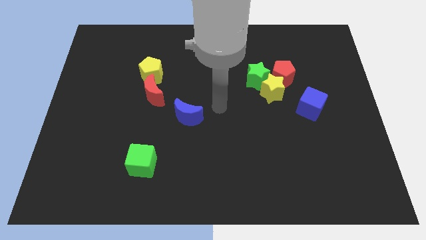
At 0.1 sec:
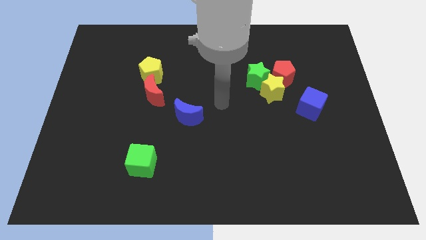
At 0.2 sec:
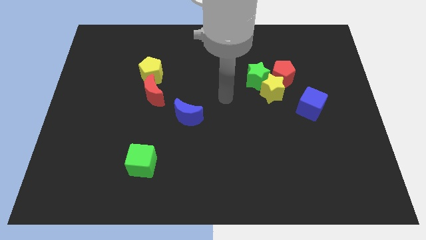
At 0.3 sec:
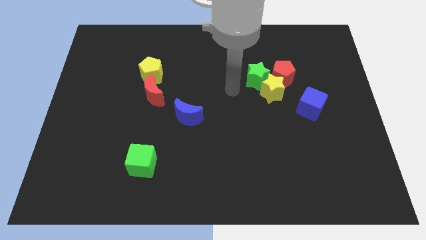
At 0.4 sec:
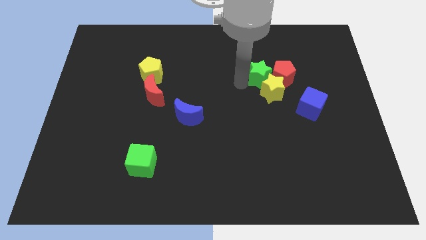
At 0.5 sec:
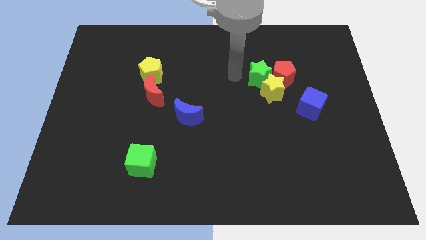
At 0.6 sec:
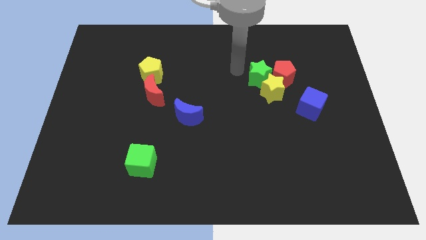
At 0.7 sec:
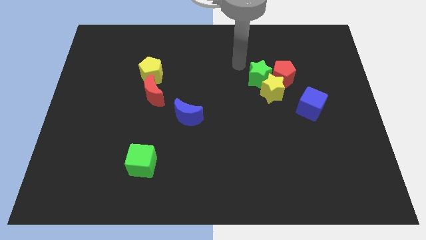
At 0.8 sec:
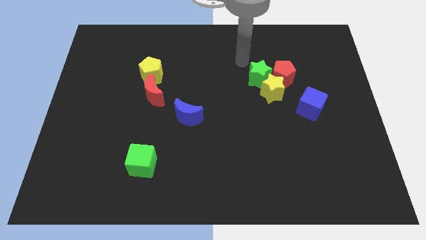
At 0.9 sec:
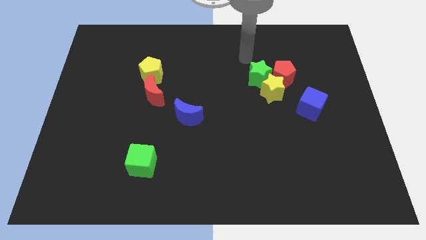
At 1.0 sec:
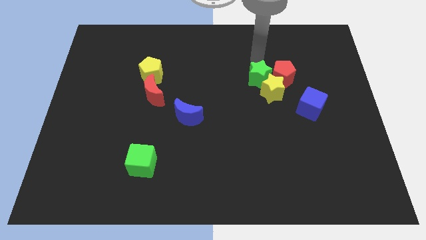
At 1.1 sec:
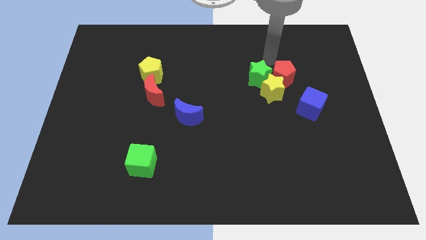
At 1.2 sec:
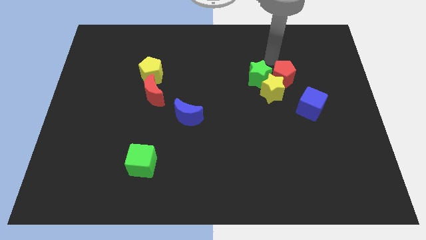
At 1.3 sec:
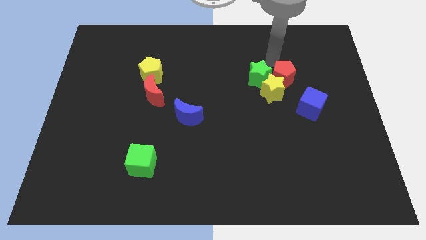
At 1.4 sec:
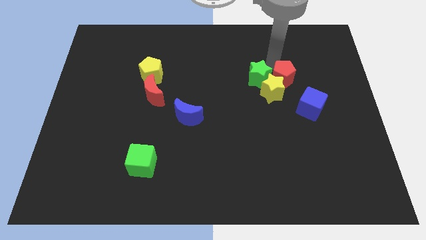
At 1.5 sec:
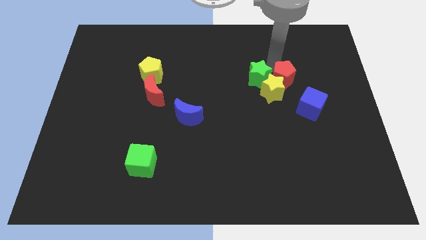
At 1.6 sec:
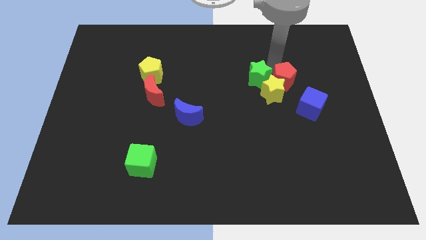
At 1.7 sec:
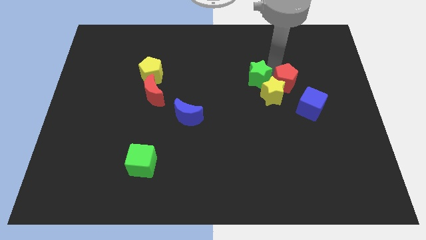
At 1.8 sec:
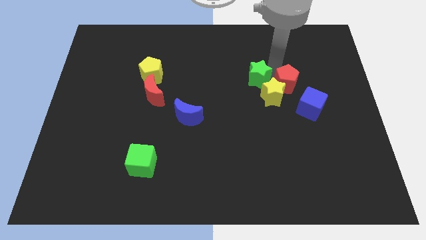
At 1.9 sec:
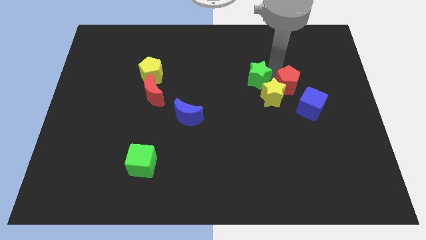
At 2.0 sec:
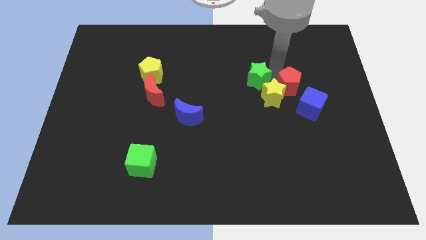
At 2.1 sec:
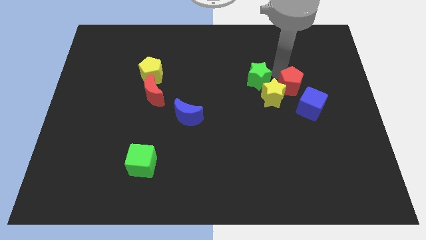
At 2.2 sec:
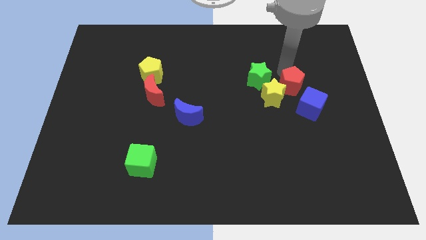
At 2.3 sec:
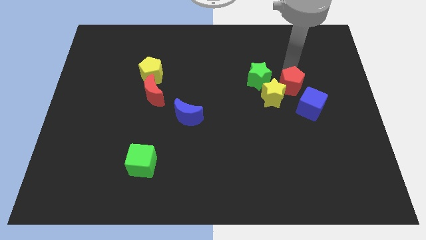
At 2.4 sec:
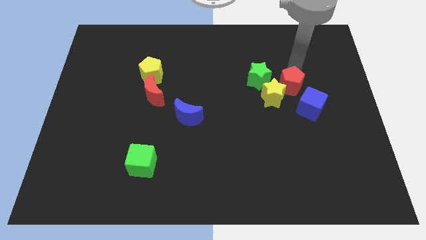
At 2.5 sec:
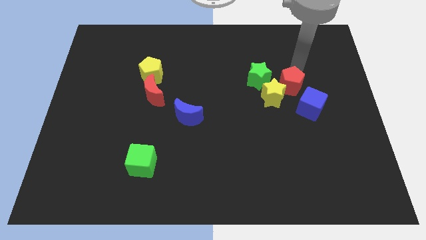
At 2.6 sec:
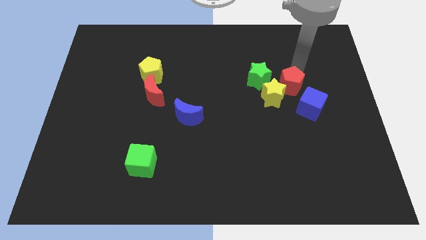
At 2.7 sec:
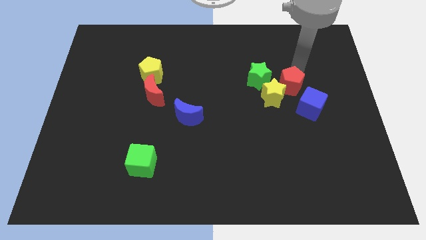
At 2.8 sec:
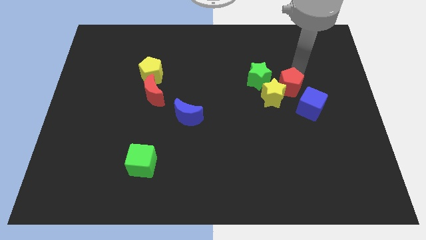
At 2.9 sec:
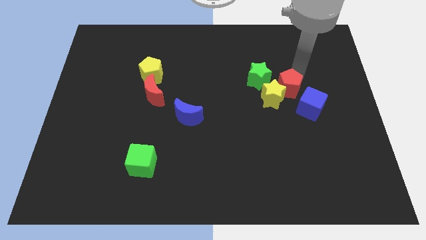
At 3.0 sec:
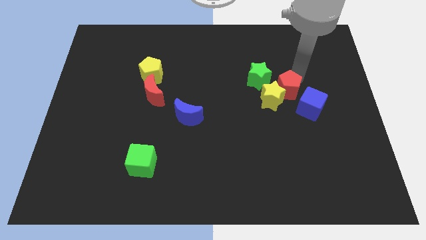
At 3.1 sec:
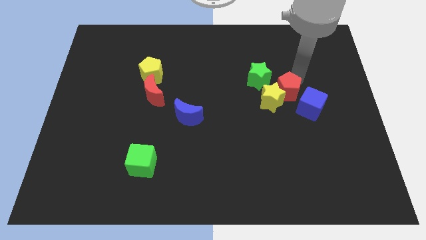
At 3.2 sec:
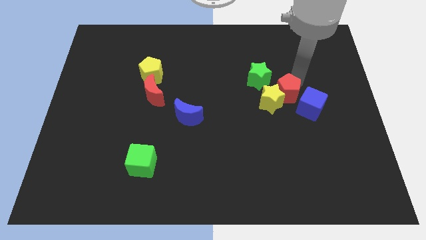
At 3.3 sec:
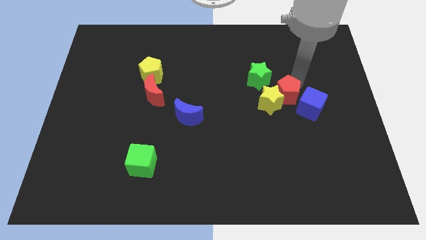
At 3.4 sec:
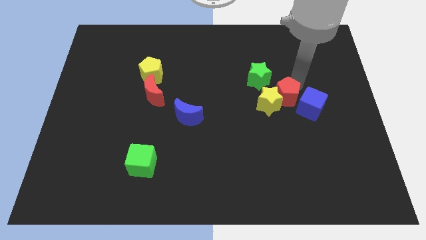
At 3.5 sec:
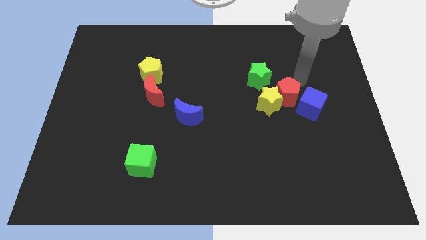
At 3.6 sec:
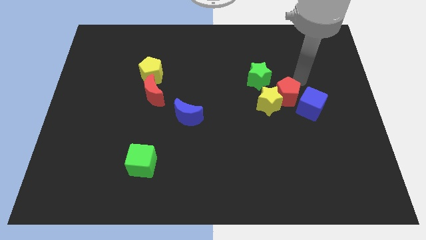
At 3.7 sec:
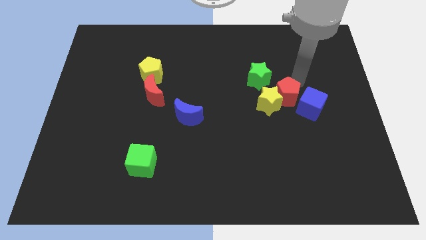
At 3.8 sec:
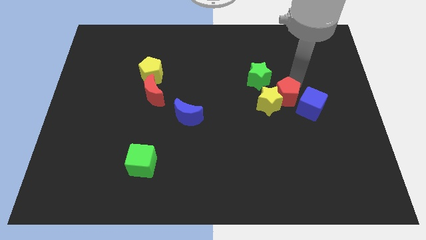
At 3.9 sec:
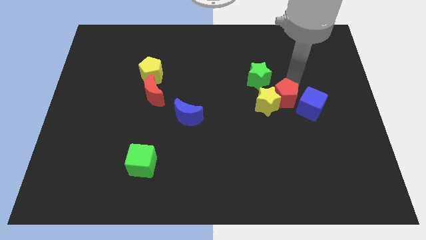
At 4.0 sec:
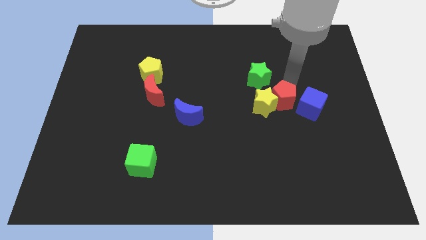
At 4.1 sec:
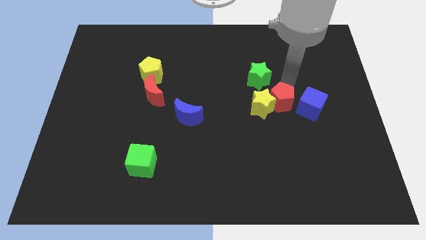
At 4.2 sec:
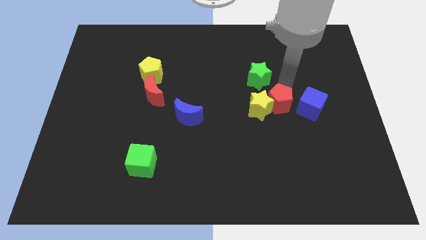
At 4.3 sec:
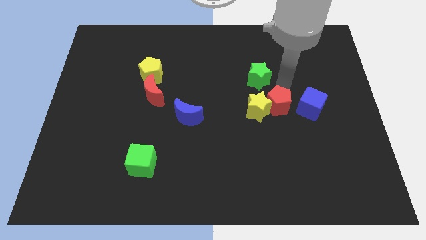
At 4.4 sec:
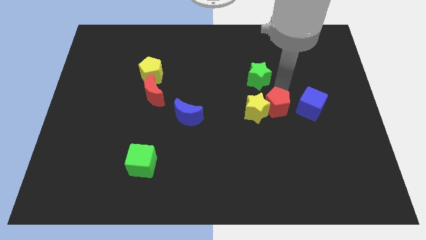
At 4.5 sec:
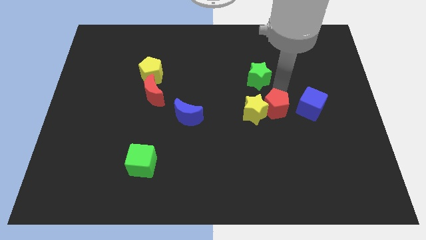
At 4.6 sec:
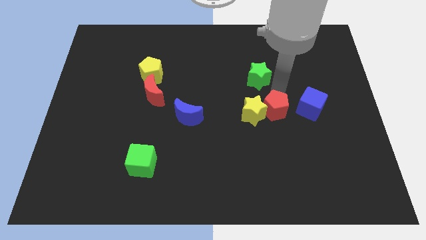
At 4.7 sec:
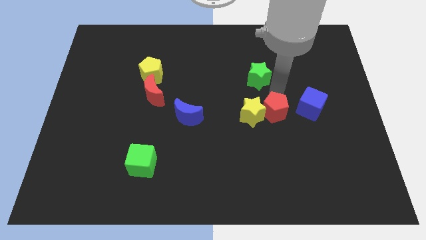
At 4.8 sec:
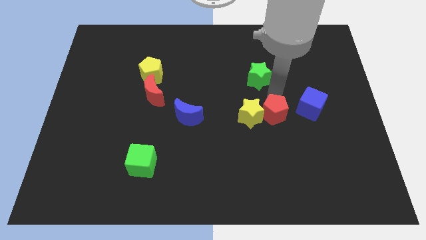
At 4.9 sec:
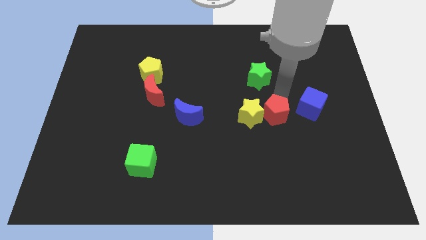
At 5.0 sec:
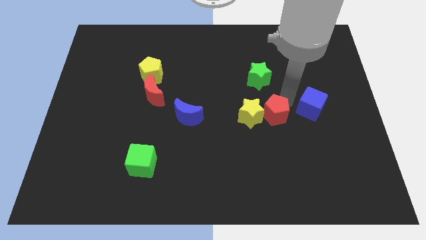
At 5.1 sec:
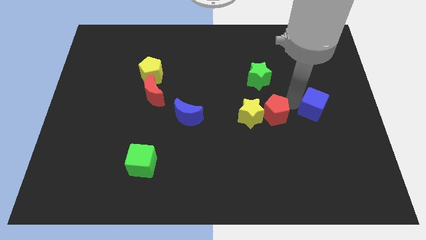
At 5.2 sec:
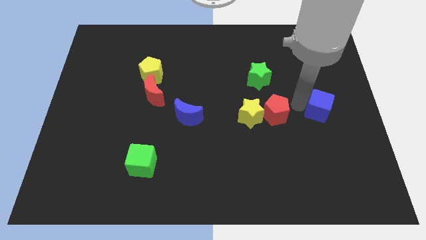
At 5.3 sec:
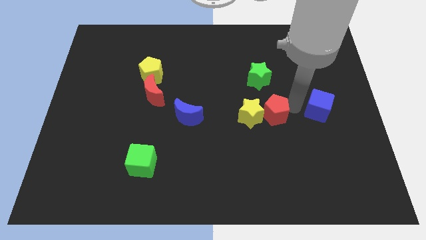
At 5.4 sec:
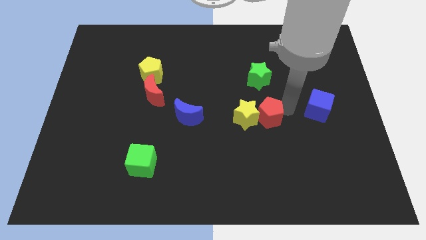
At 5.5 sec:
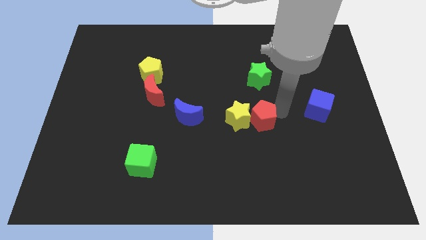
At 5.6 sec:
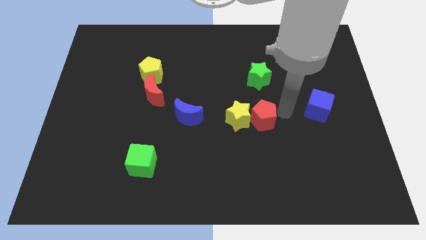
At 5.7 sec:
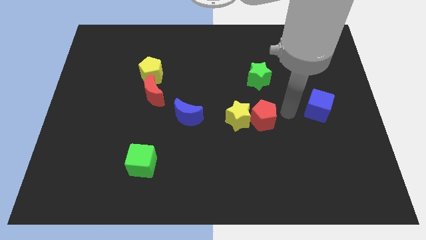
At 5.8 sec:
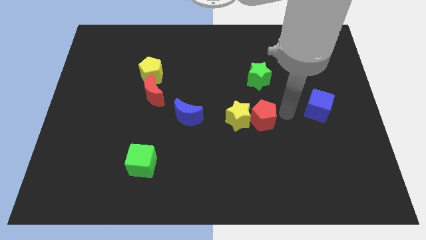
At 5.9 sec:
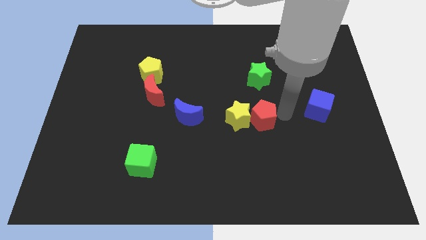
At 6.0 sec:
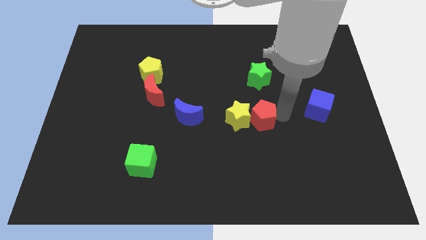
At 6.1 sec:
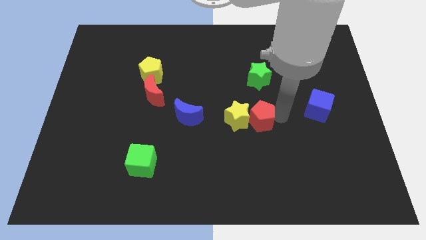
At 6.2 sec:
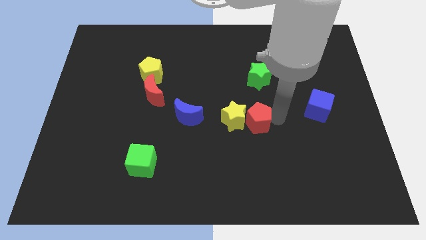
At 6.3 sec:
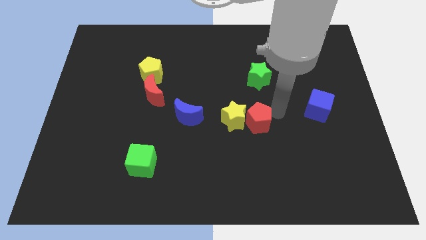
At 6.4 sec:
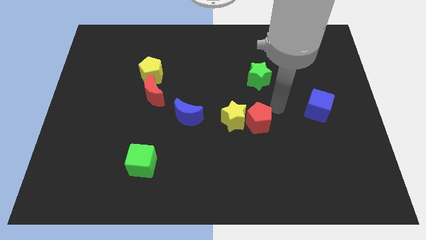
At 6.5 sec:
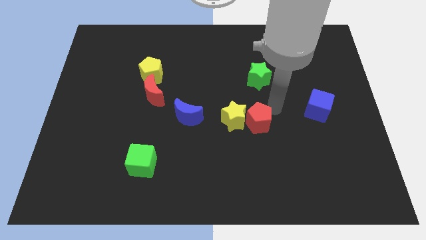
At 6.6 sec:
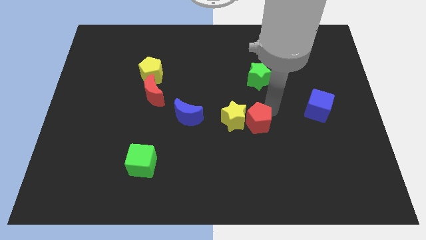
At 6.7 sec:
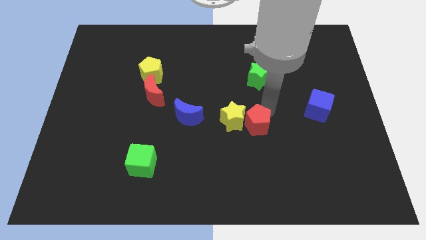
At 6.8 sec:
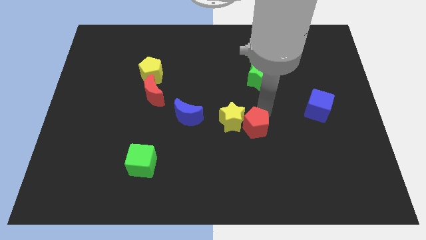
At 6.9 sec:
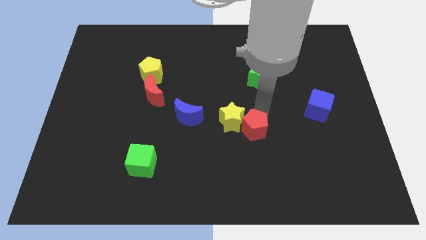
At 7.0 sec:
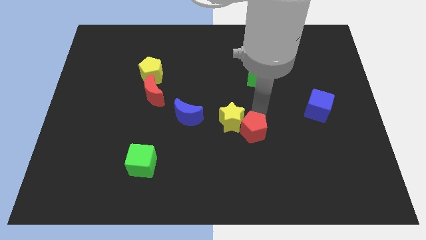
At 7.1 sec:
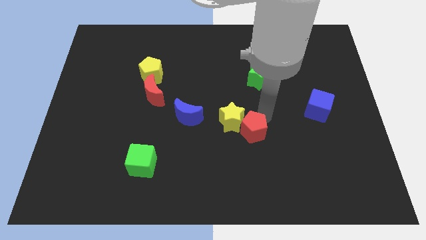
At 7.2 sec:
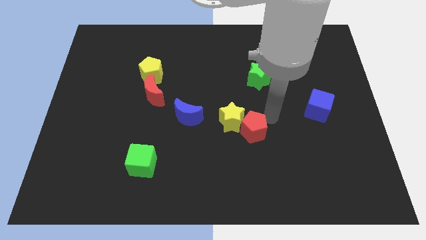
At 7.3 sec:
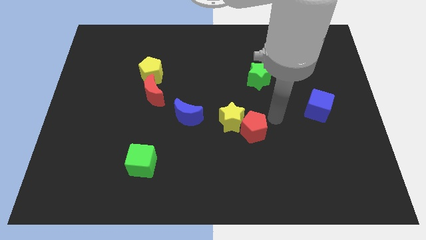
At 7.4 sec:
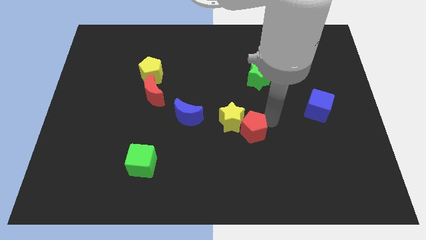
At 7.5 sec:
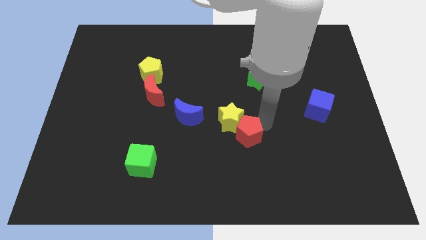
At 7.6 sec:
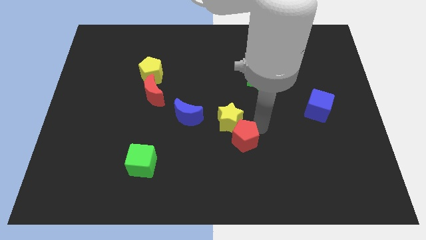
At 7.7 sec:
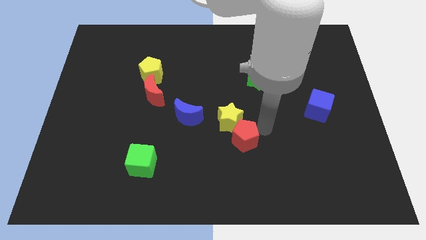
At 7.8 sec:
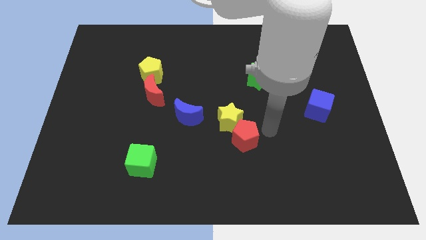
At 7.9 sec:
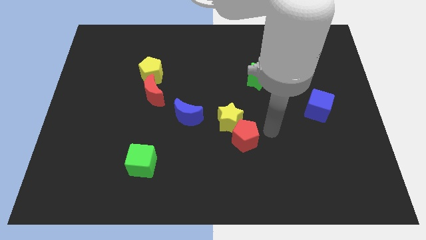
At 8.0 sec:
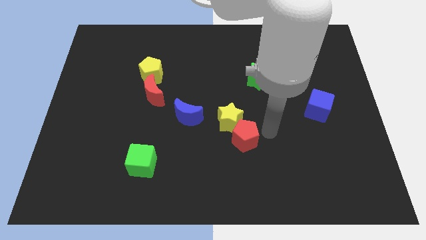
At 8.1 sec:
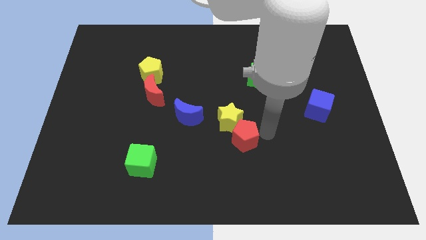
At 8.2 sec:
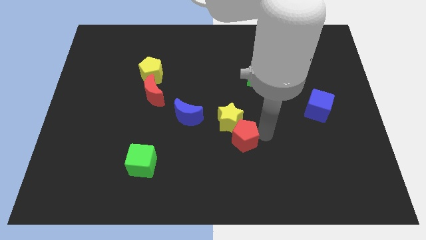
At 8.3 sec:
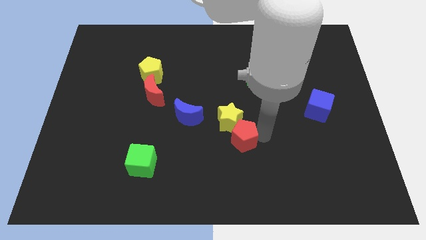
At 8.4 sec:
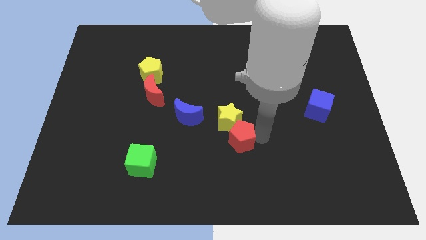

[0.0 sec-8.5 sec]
slide the red pentagon downwards and to the left diagonally
